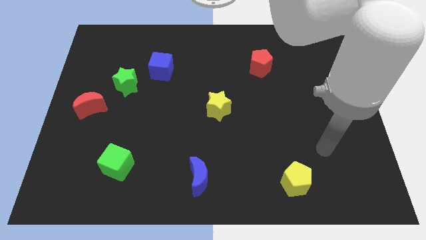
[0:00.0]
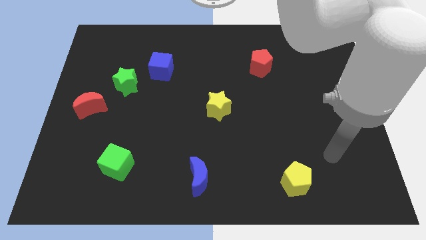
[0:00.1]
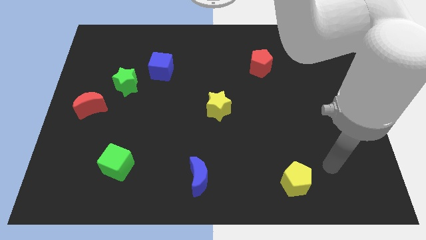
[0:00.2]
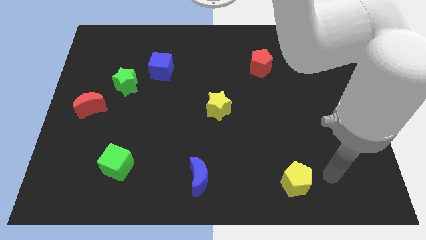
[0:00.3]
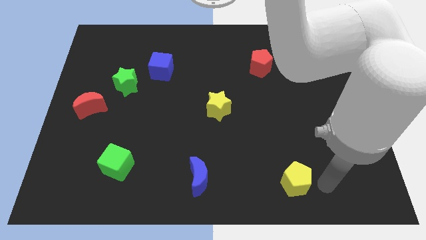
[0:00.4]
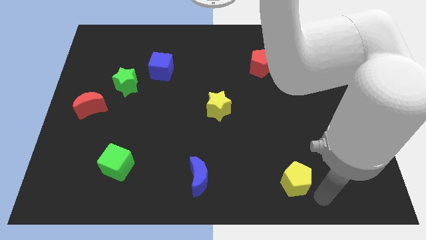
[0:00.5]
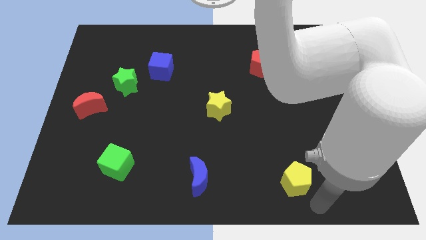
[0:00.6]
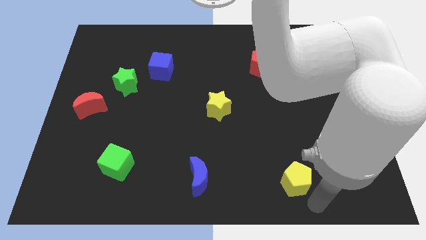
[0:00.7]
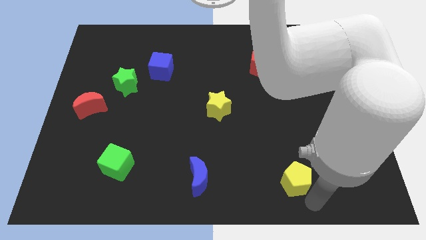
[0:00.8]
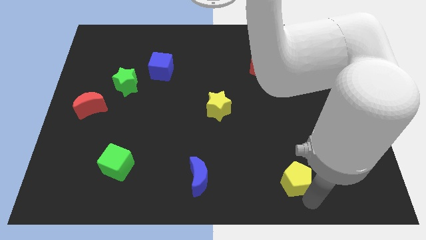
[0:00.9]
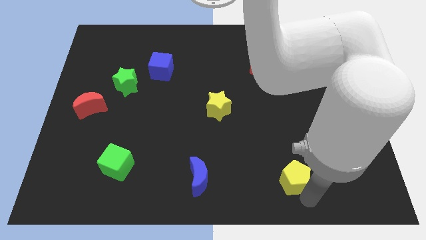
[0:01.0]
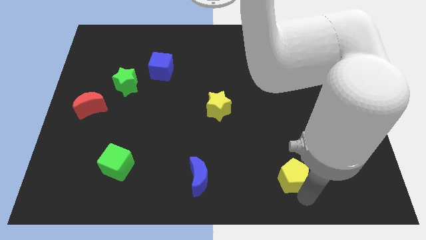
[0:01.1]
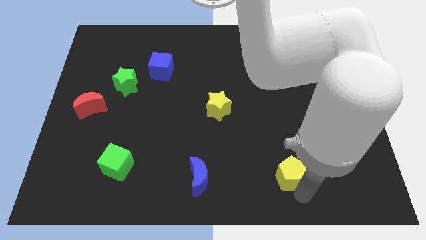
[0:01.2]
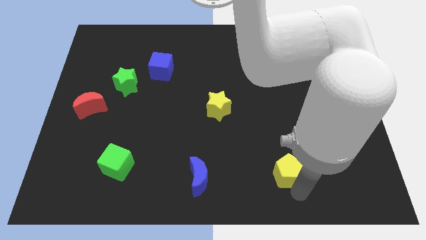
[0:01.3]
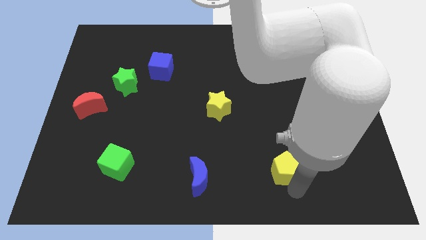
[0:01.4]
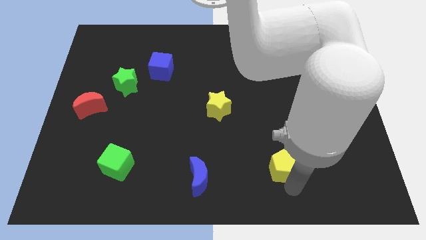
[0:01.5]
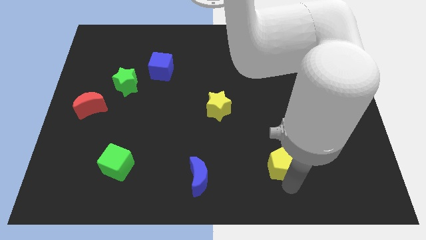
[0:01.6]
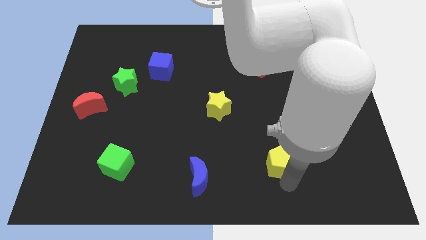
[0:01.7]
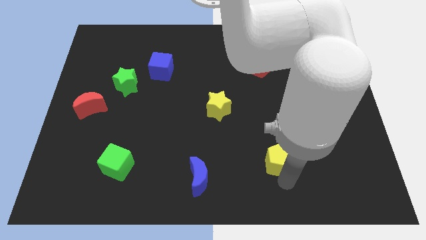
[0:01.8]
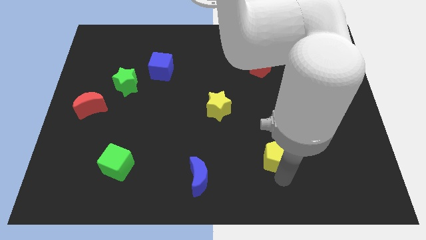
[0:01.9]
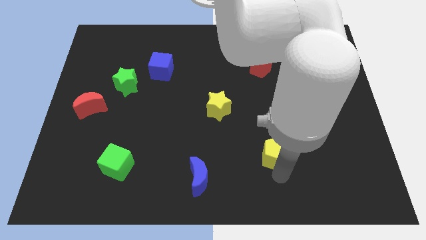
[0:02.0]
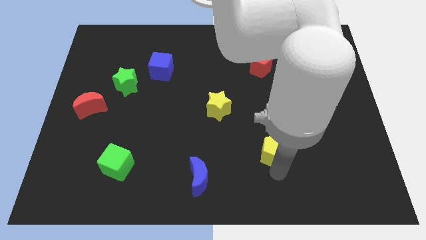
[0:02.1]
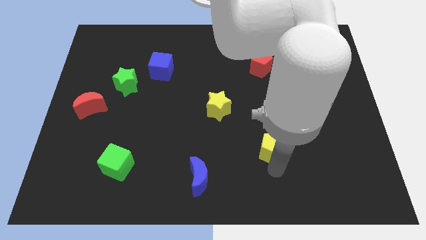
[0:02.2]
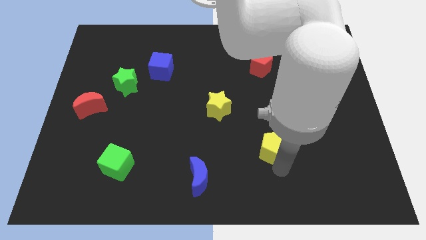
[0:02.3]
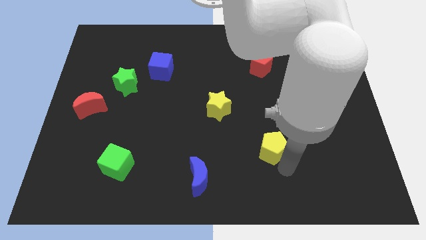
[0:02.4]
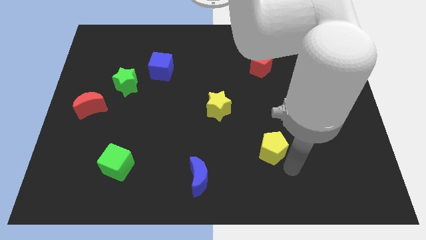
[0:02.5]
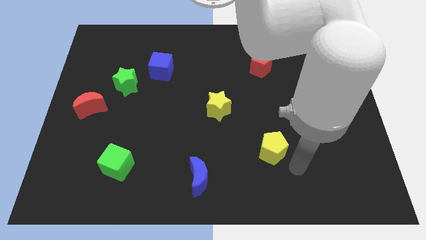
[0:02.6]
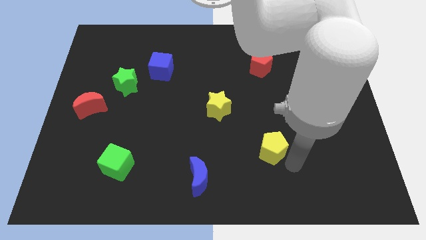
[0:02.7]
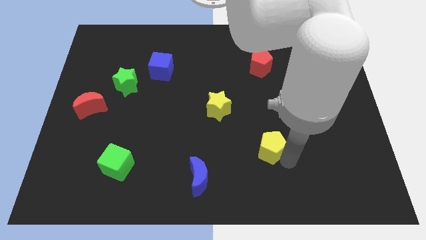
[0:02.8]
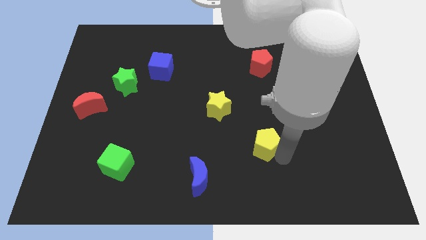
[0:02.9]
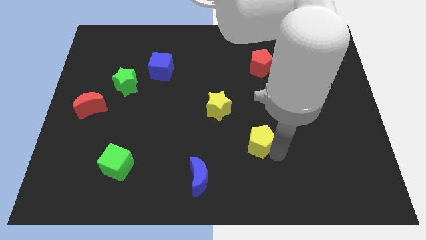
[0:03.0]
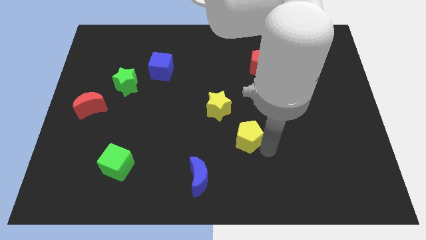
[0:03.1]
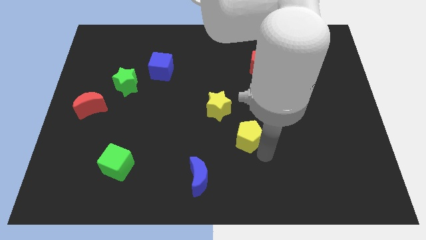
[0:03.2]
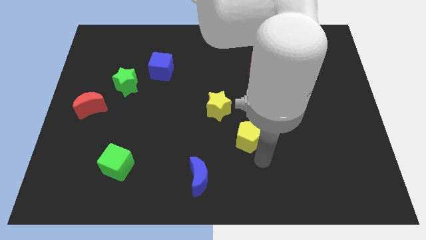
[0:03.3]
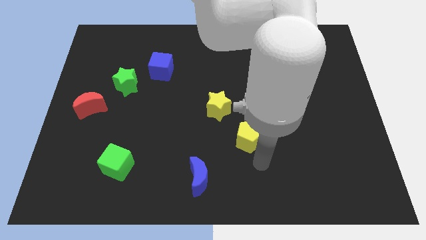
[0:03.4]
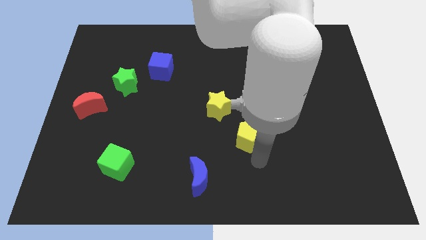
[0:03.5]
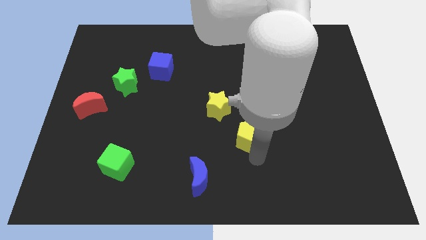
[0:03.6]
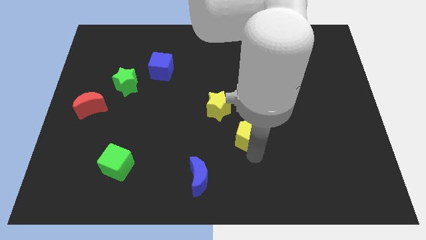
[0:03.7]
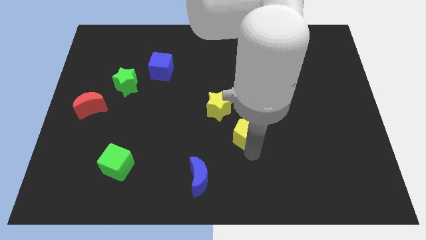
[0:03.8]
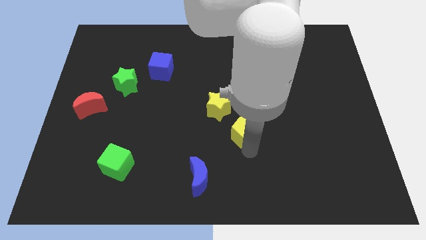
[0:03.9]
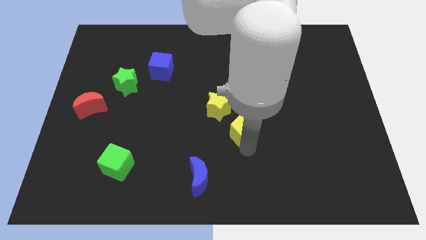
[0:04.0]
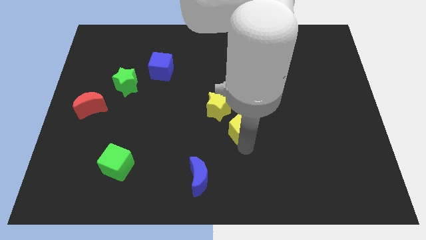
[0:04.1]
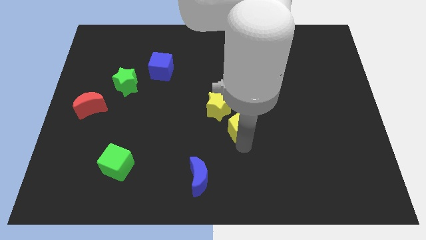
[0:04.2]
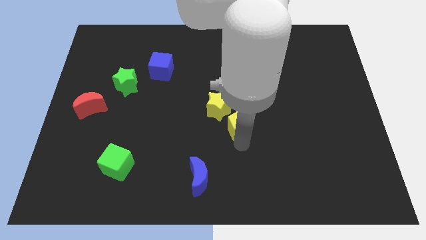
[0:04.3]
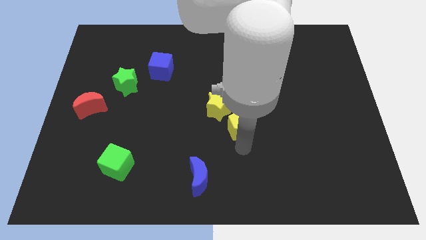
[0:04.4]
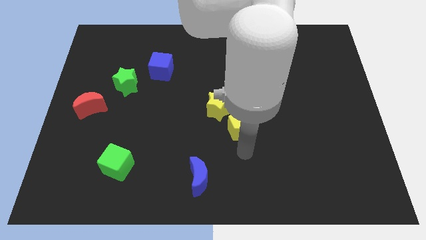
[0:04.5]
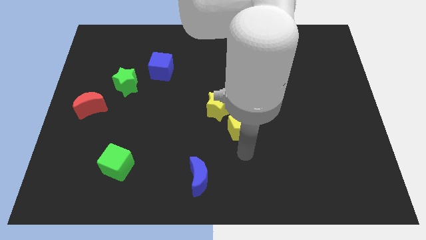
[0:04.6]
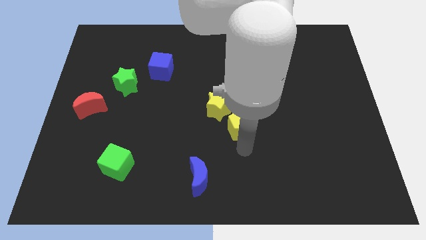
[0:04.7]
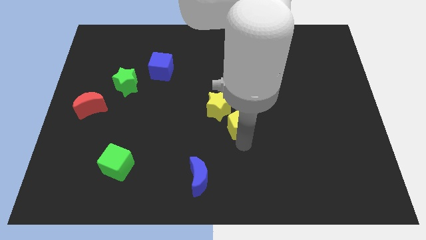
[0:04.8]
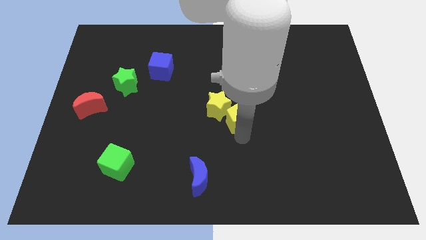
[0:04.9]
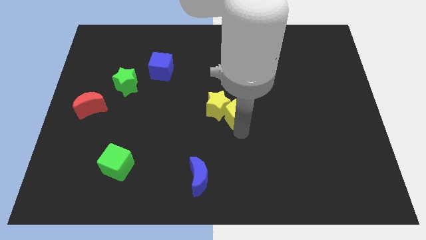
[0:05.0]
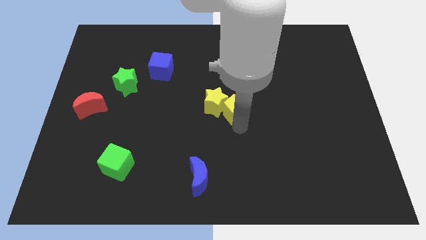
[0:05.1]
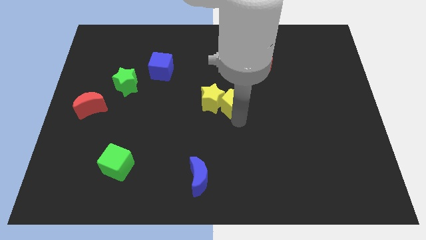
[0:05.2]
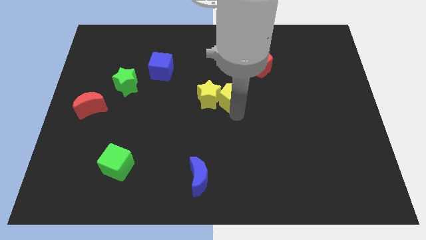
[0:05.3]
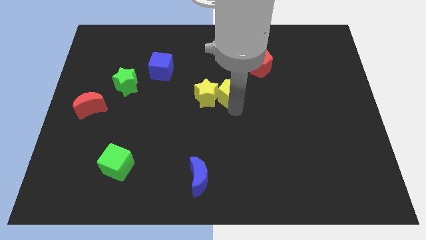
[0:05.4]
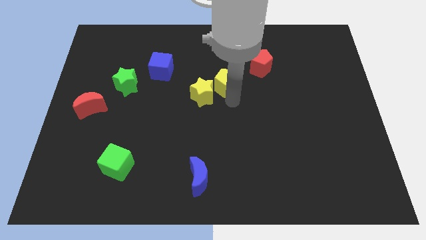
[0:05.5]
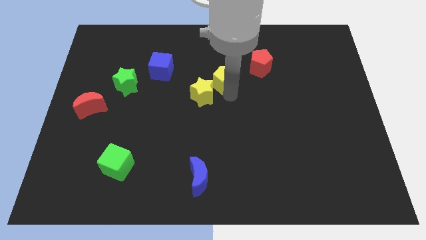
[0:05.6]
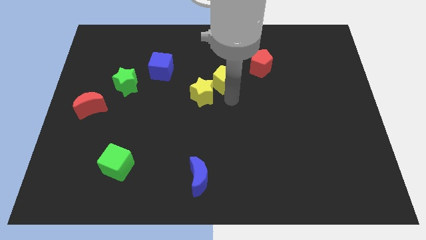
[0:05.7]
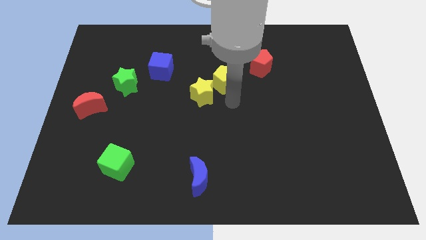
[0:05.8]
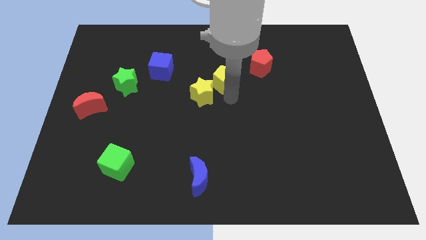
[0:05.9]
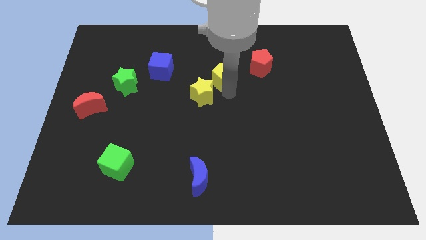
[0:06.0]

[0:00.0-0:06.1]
put the yellow pentagon to the left of the red pentagon

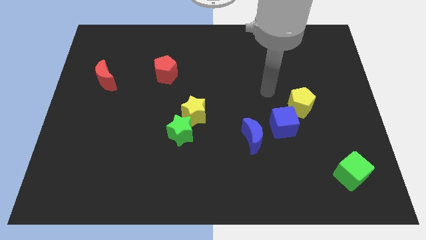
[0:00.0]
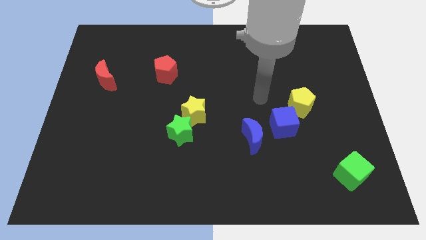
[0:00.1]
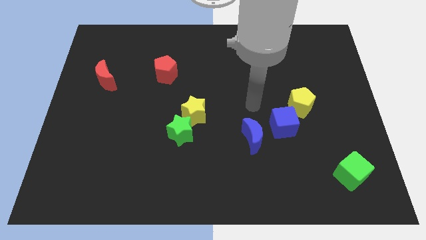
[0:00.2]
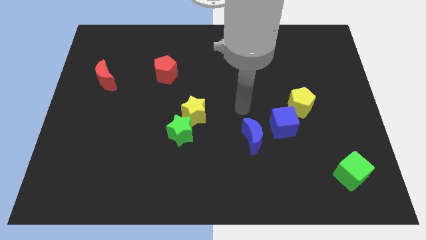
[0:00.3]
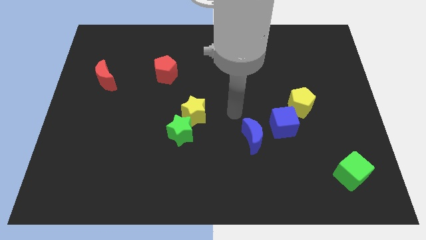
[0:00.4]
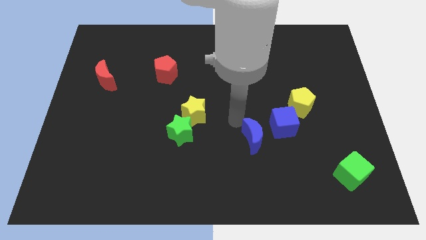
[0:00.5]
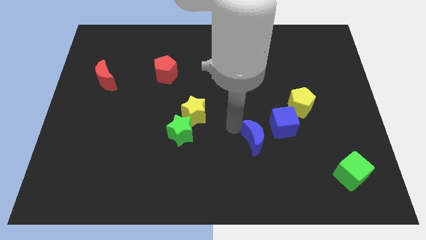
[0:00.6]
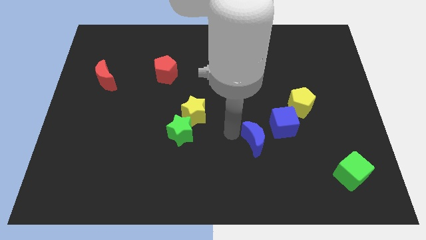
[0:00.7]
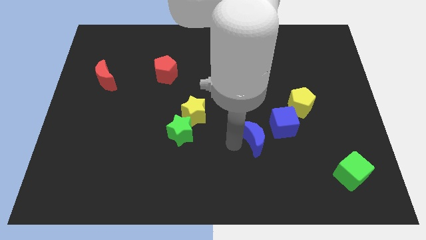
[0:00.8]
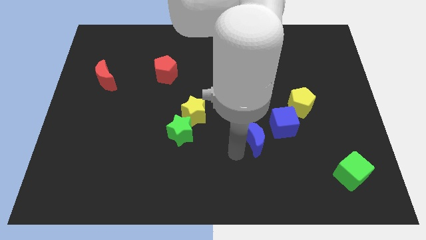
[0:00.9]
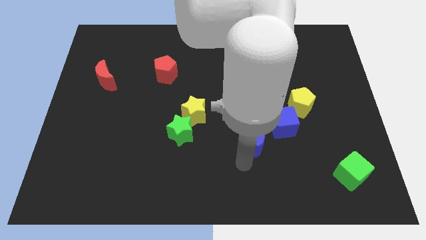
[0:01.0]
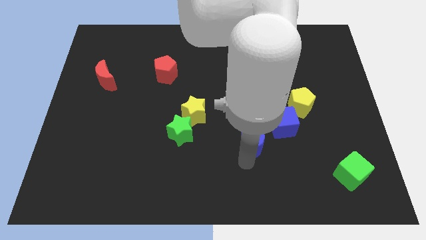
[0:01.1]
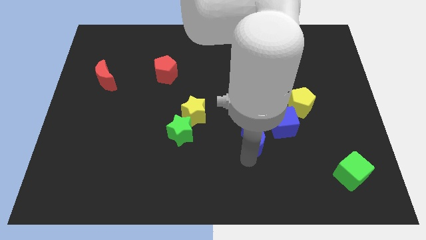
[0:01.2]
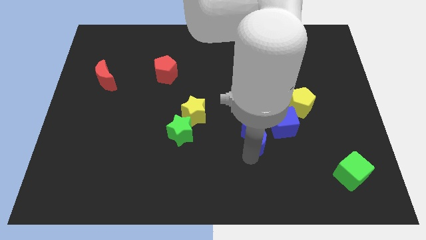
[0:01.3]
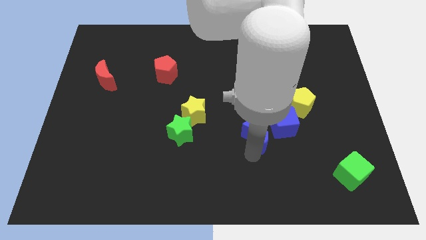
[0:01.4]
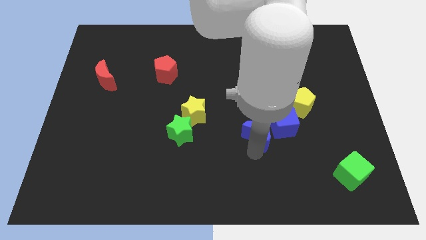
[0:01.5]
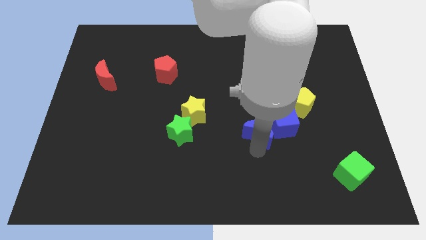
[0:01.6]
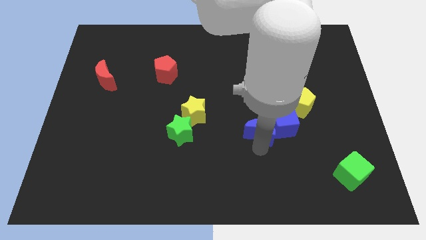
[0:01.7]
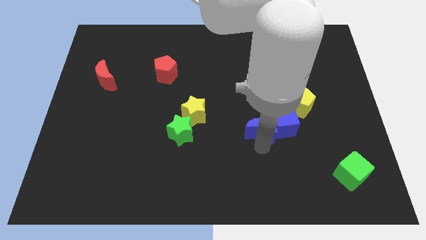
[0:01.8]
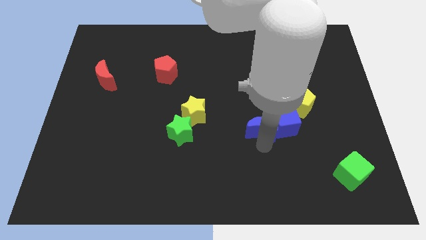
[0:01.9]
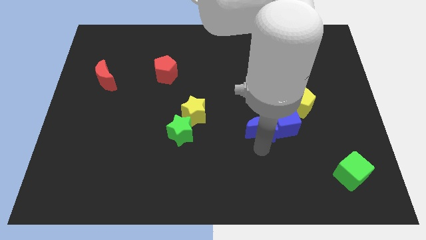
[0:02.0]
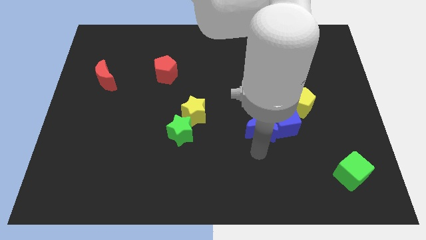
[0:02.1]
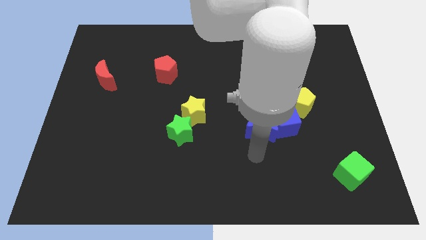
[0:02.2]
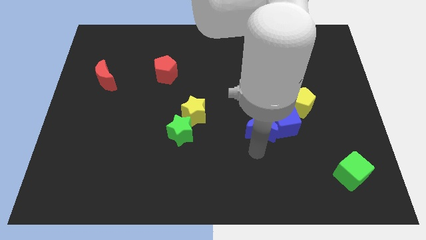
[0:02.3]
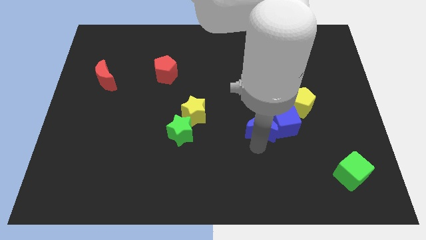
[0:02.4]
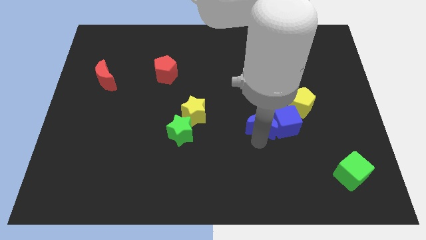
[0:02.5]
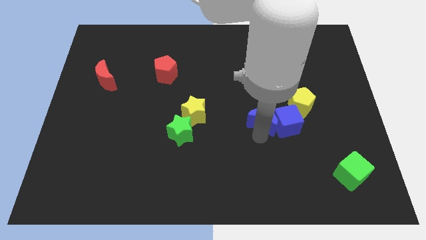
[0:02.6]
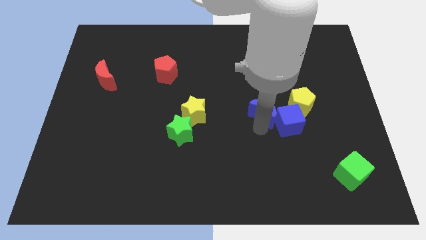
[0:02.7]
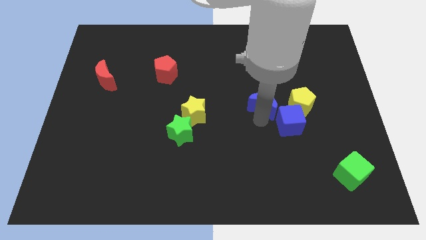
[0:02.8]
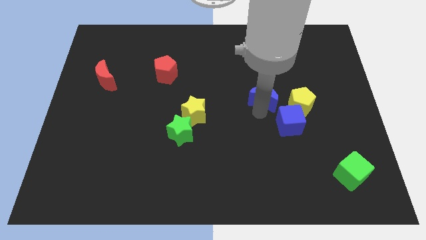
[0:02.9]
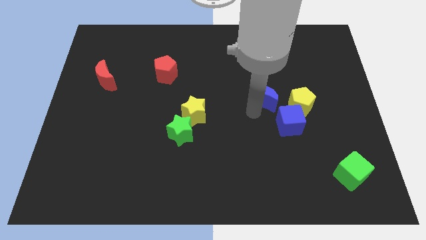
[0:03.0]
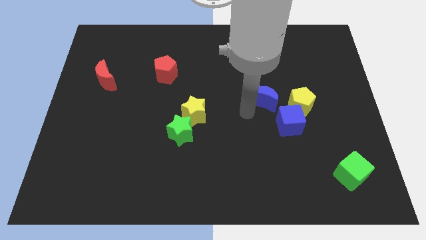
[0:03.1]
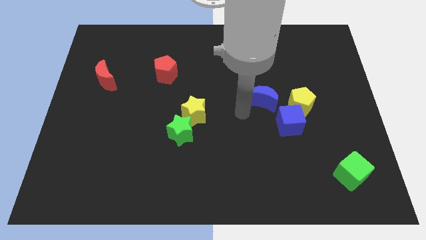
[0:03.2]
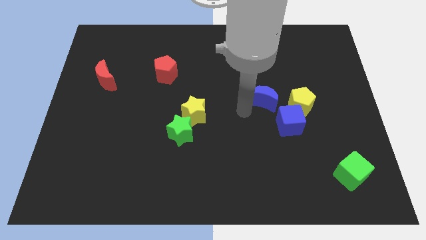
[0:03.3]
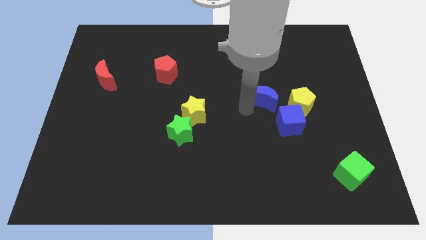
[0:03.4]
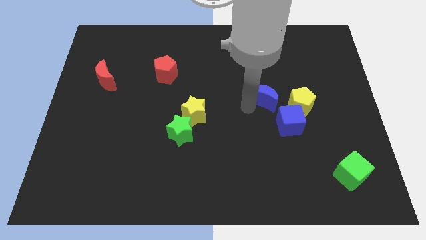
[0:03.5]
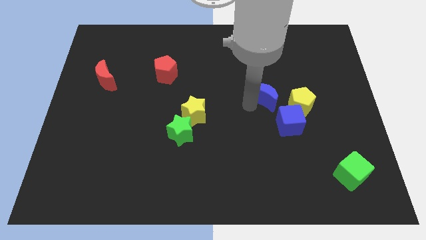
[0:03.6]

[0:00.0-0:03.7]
put the blue moon above the blue cube
